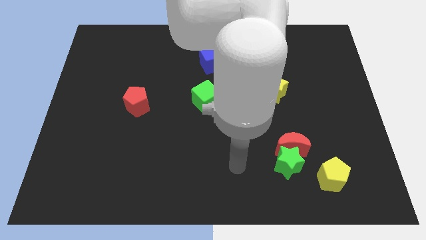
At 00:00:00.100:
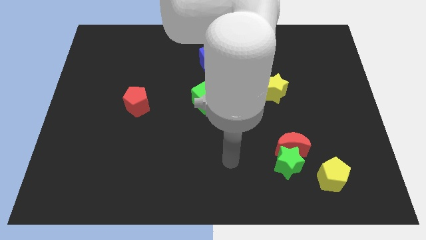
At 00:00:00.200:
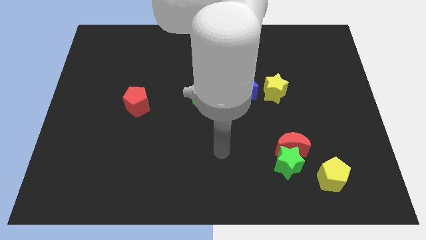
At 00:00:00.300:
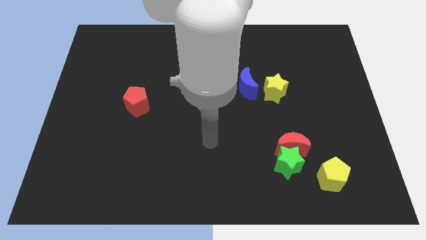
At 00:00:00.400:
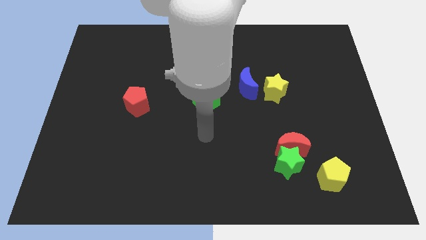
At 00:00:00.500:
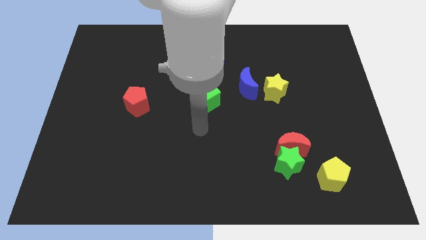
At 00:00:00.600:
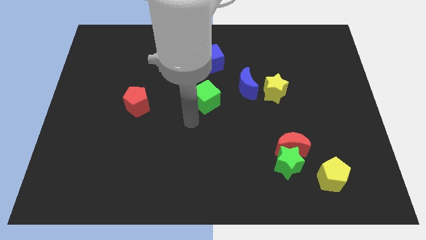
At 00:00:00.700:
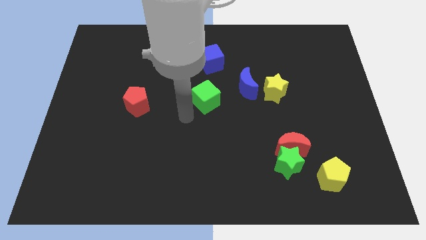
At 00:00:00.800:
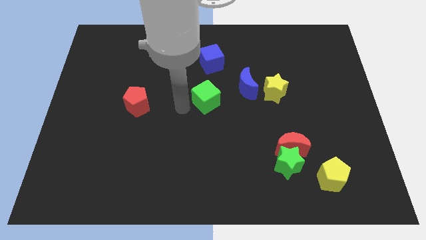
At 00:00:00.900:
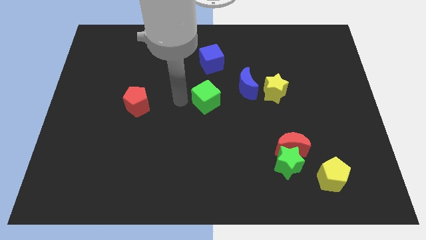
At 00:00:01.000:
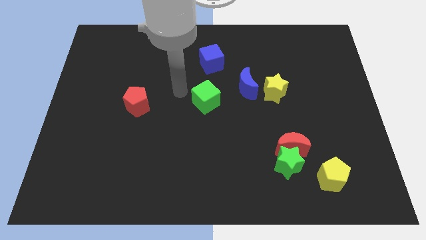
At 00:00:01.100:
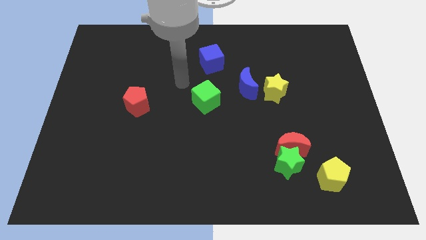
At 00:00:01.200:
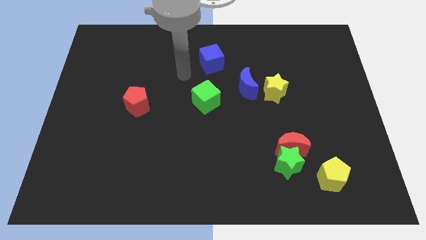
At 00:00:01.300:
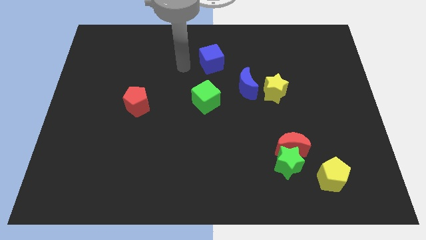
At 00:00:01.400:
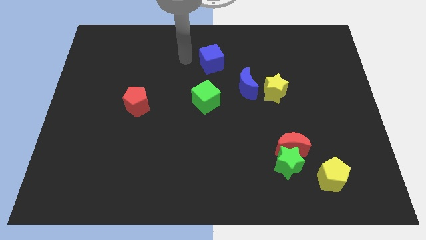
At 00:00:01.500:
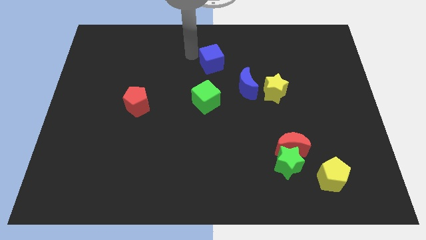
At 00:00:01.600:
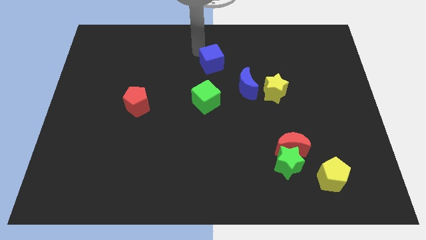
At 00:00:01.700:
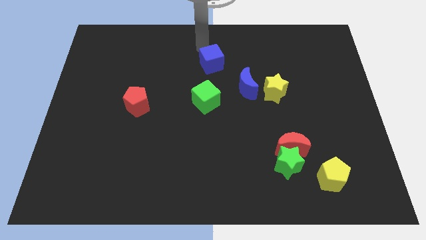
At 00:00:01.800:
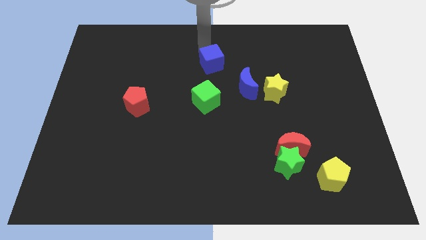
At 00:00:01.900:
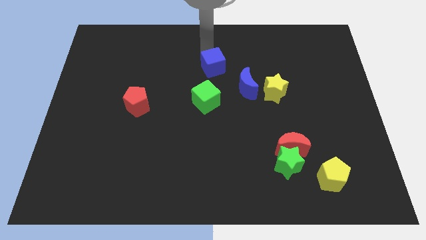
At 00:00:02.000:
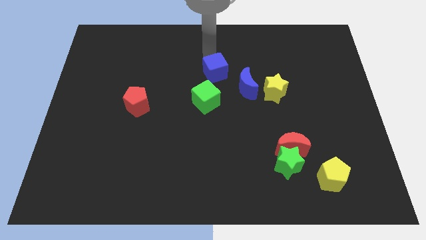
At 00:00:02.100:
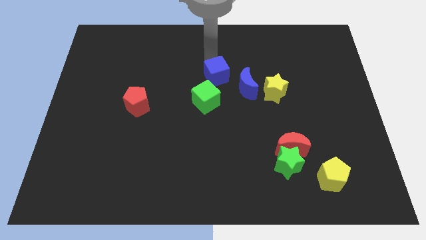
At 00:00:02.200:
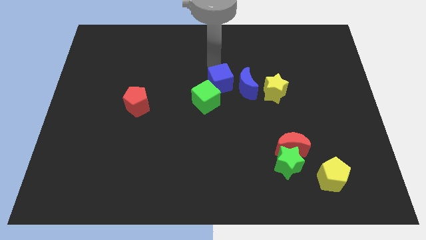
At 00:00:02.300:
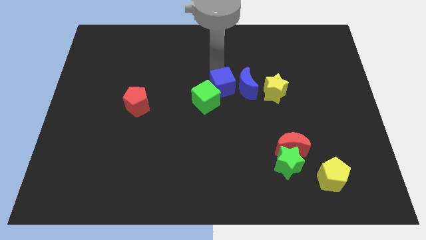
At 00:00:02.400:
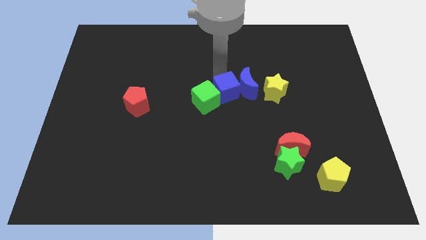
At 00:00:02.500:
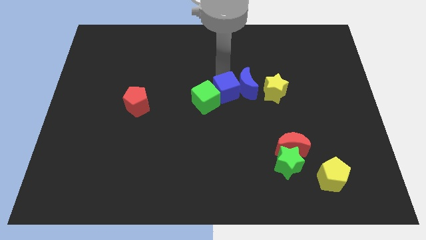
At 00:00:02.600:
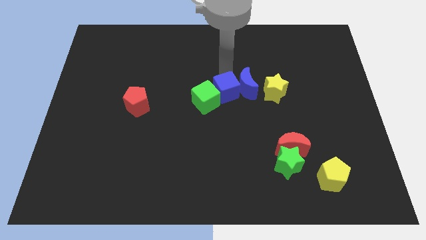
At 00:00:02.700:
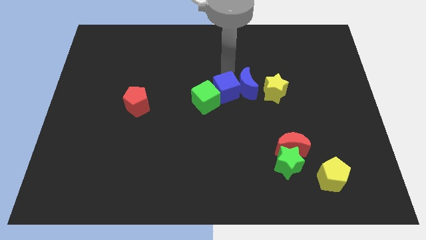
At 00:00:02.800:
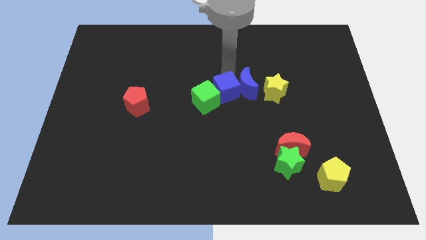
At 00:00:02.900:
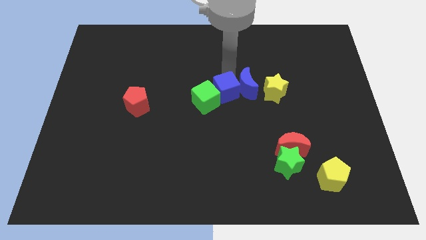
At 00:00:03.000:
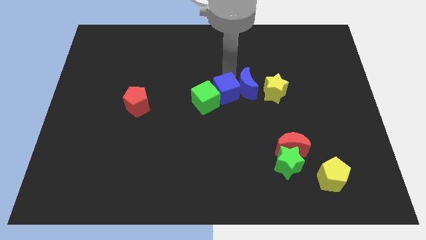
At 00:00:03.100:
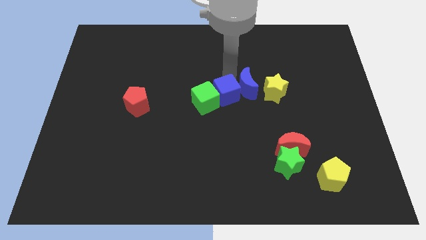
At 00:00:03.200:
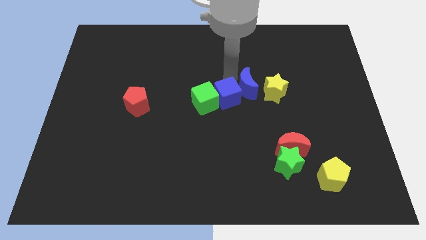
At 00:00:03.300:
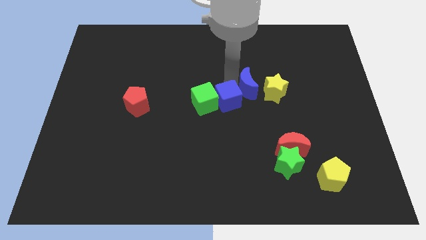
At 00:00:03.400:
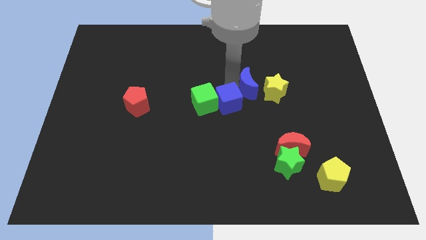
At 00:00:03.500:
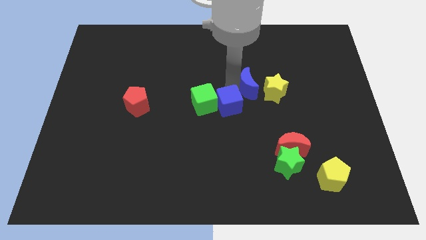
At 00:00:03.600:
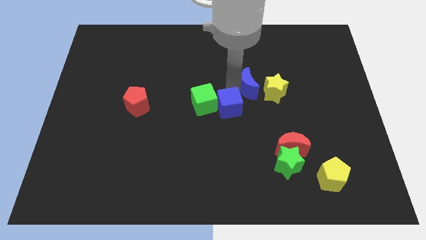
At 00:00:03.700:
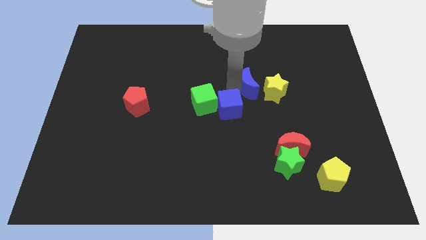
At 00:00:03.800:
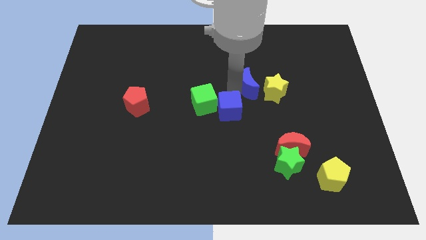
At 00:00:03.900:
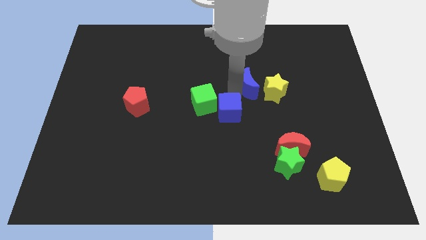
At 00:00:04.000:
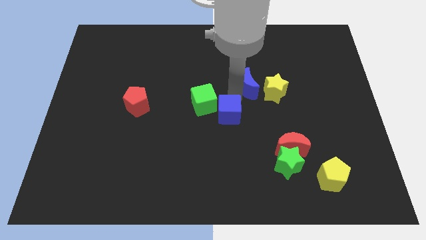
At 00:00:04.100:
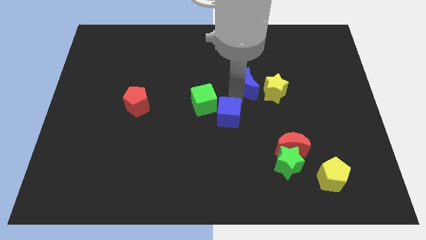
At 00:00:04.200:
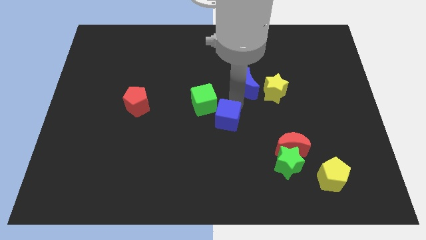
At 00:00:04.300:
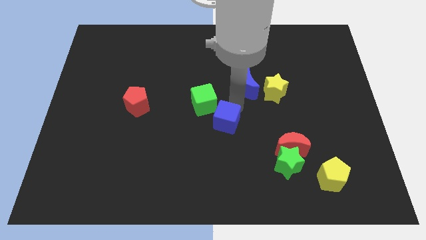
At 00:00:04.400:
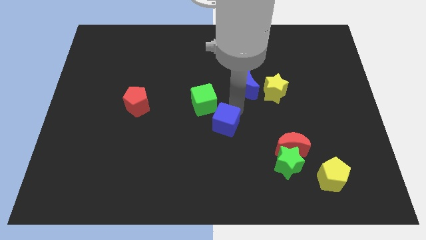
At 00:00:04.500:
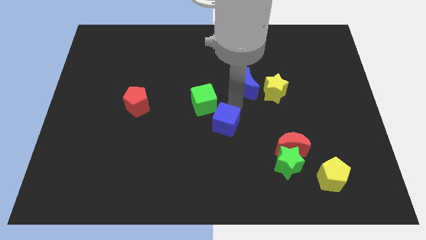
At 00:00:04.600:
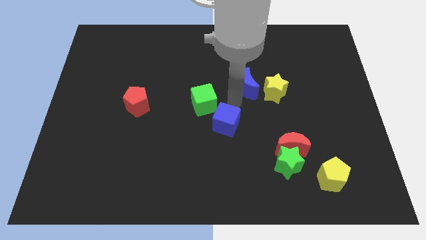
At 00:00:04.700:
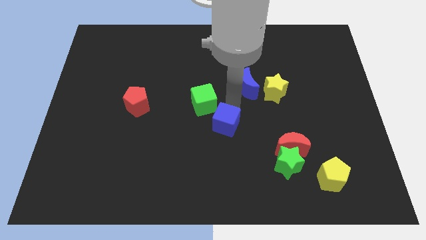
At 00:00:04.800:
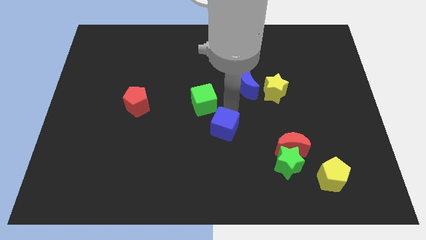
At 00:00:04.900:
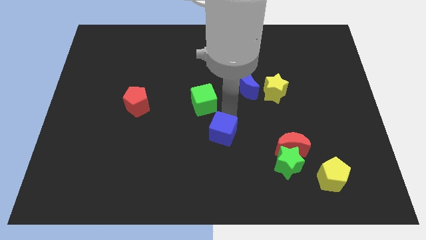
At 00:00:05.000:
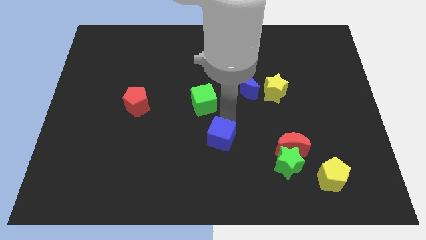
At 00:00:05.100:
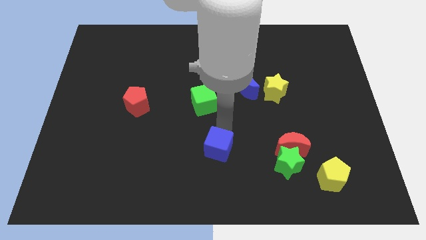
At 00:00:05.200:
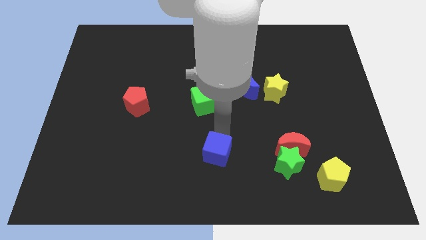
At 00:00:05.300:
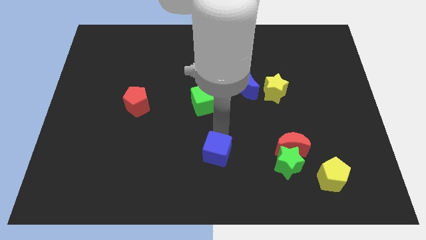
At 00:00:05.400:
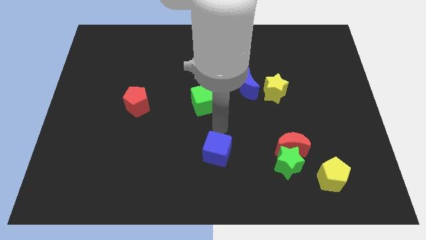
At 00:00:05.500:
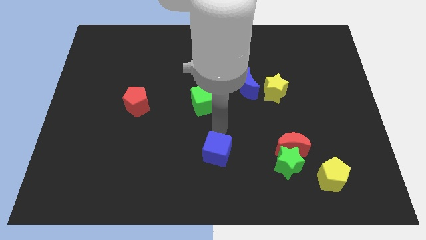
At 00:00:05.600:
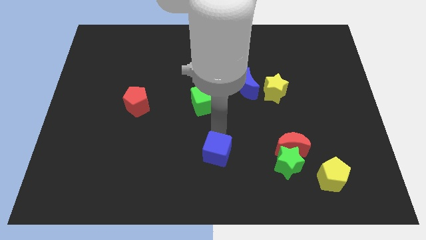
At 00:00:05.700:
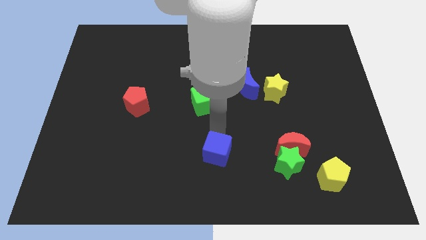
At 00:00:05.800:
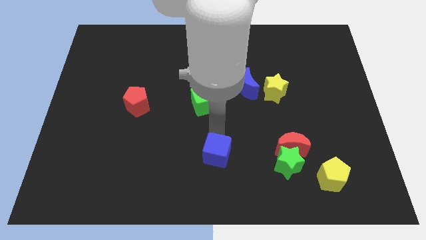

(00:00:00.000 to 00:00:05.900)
put the blue cube to the bottom
